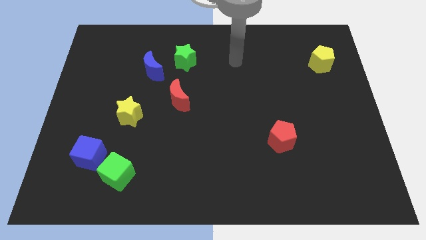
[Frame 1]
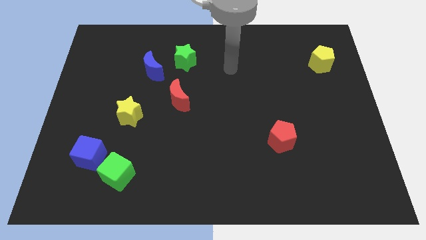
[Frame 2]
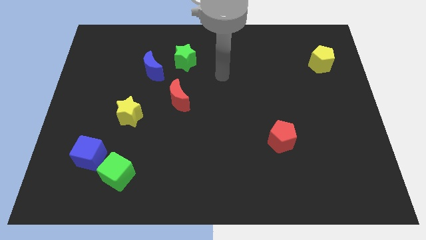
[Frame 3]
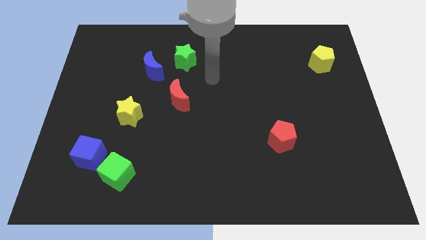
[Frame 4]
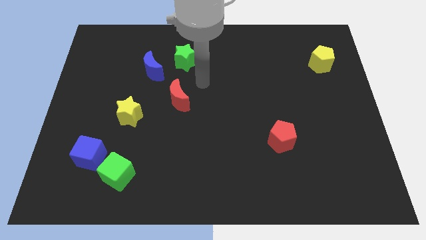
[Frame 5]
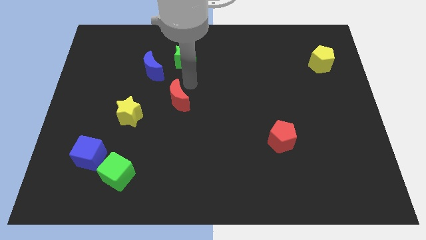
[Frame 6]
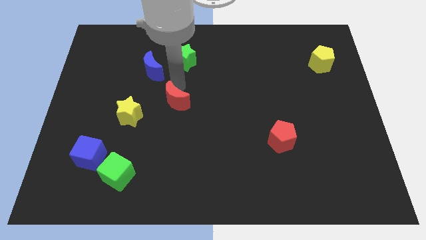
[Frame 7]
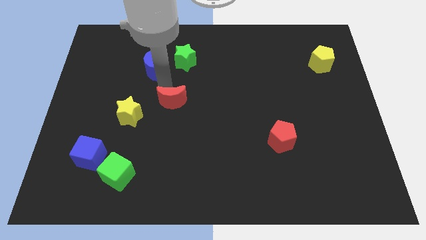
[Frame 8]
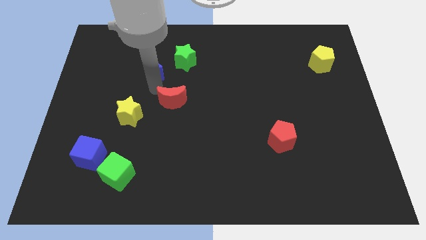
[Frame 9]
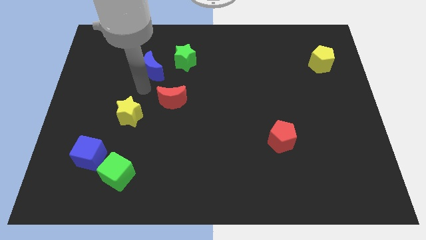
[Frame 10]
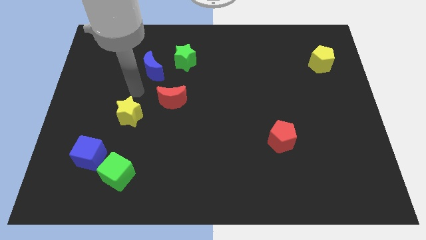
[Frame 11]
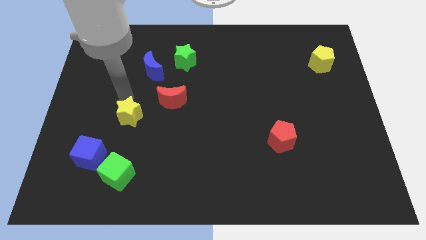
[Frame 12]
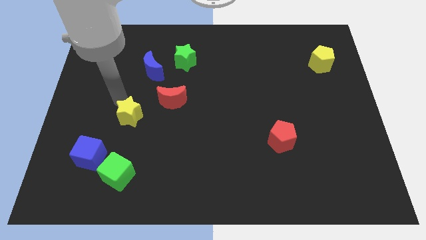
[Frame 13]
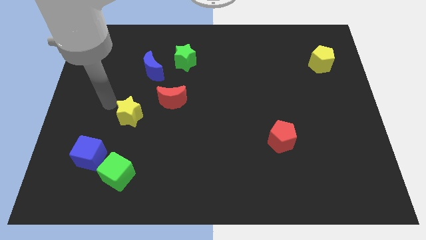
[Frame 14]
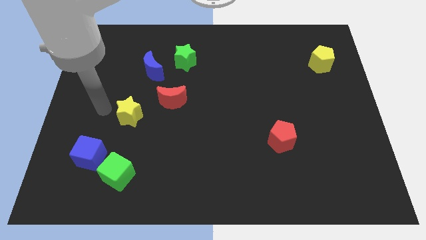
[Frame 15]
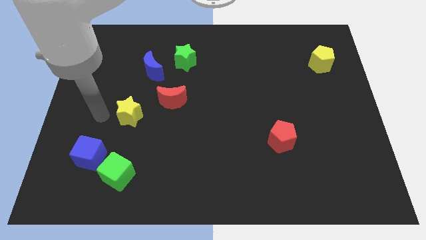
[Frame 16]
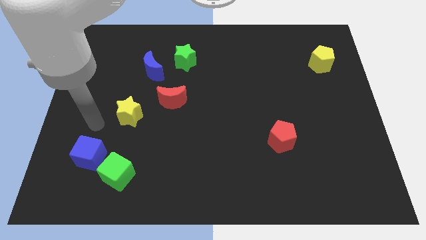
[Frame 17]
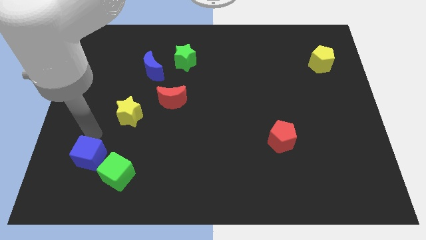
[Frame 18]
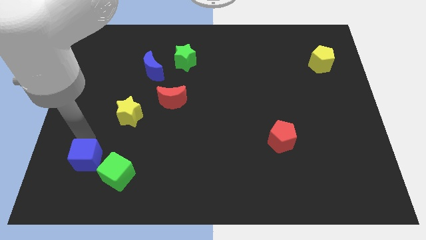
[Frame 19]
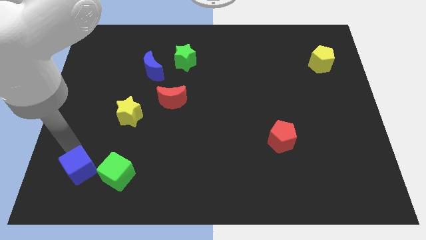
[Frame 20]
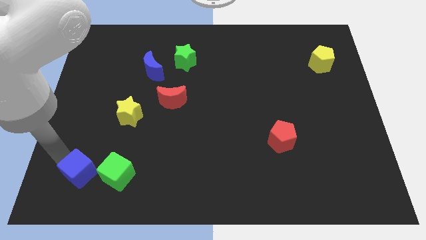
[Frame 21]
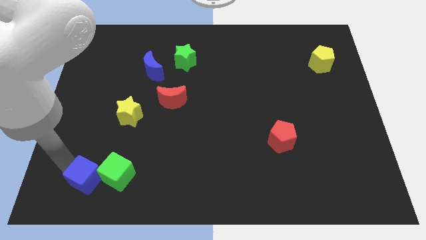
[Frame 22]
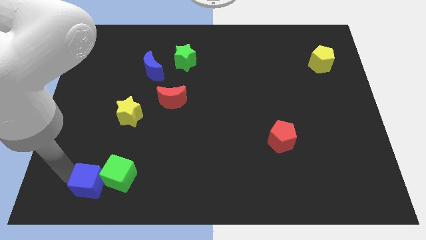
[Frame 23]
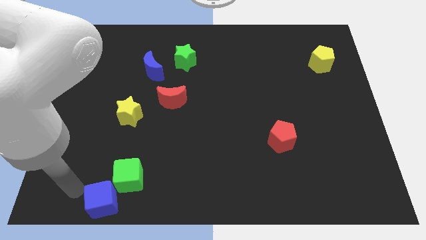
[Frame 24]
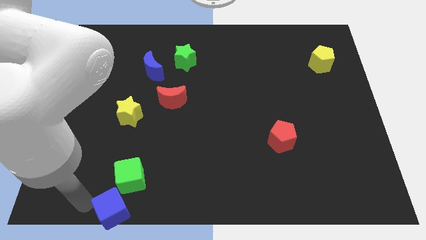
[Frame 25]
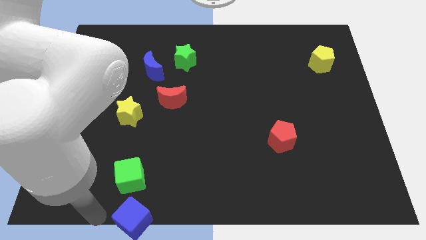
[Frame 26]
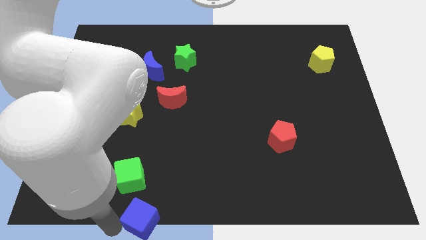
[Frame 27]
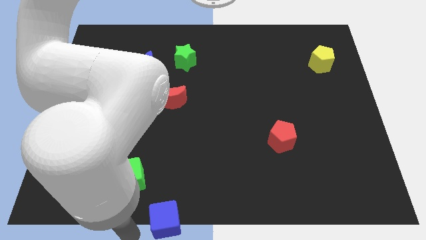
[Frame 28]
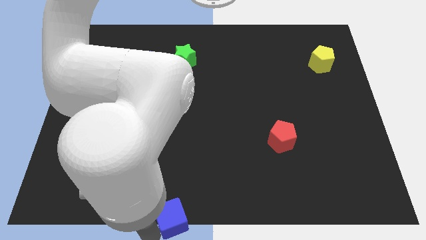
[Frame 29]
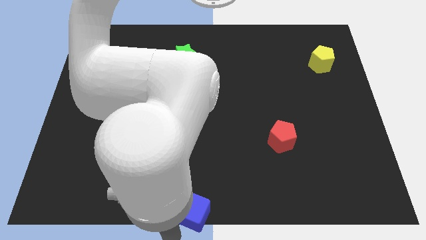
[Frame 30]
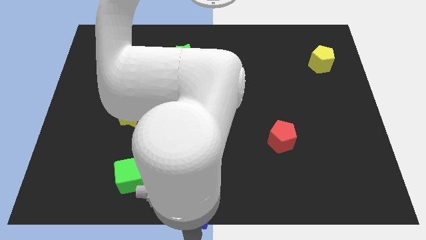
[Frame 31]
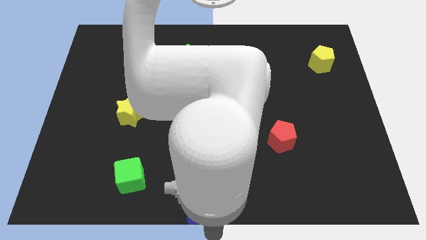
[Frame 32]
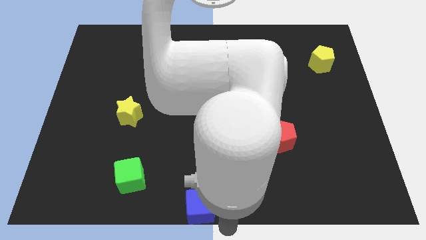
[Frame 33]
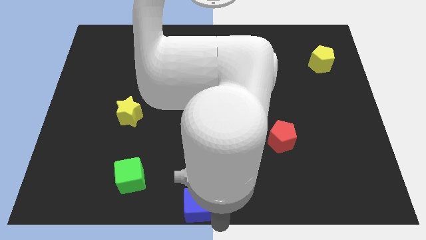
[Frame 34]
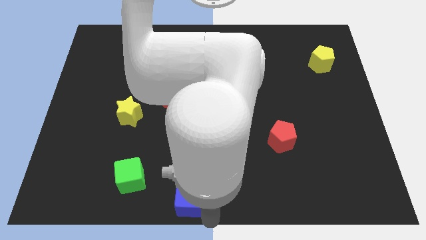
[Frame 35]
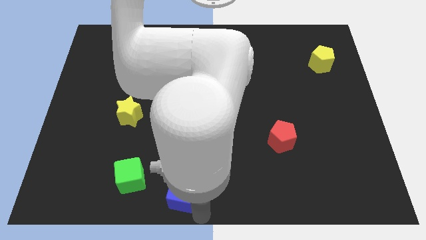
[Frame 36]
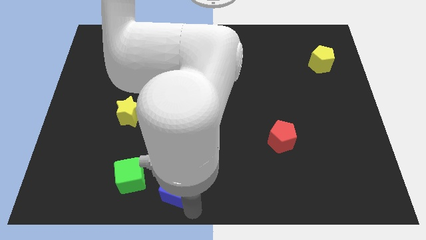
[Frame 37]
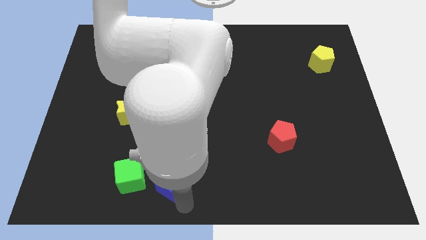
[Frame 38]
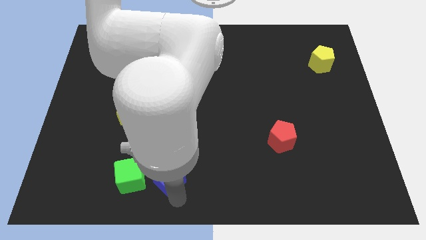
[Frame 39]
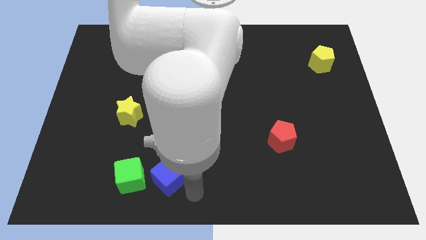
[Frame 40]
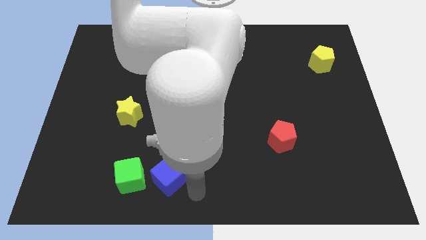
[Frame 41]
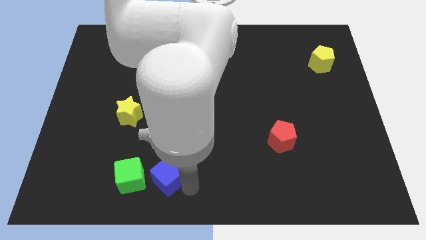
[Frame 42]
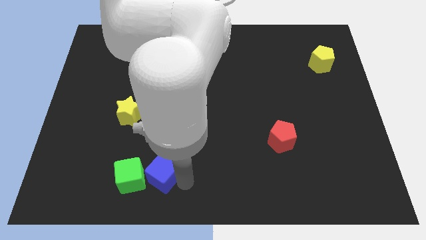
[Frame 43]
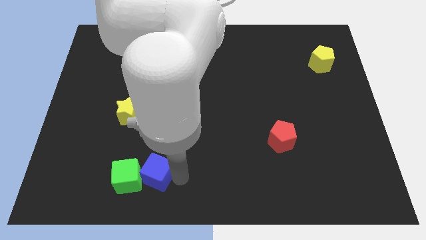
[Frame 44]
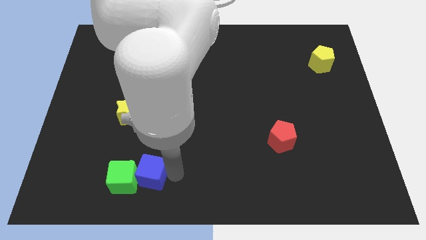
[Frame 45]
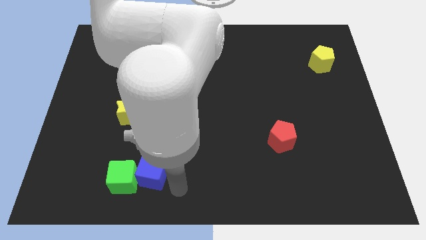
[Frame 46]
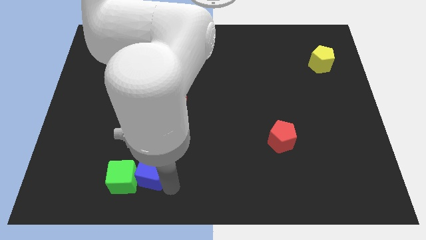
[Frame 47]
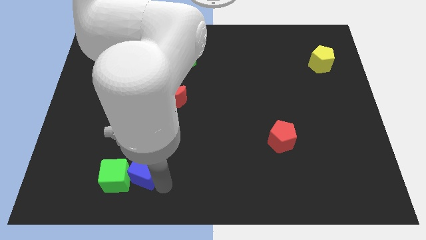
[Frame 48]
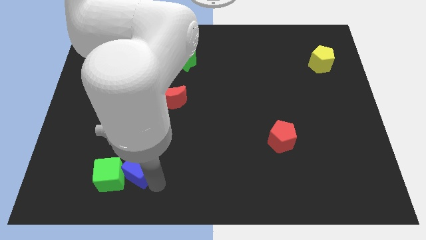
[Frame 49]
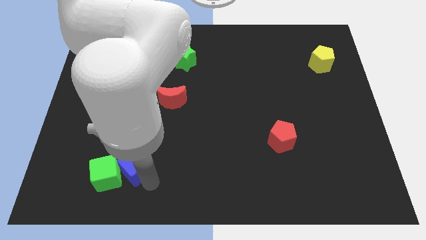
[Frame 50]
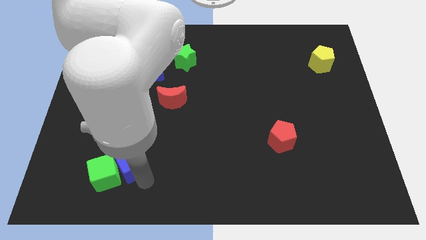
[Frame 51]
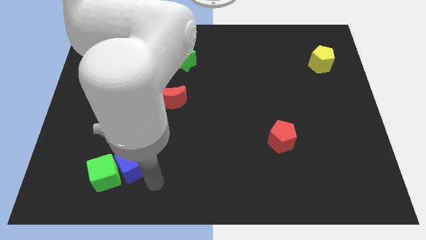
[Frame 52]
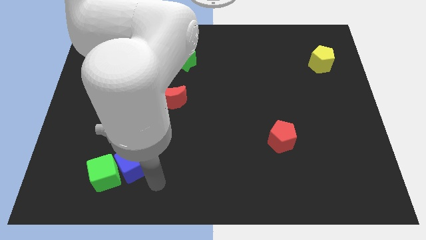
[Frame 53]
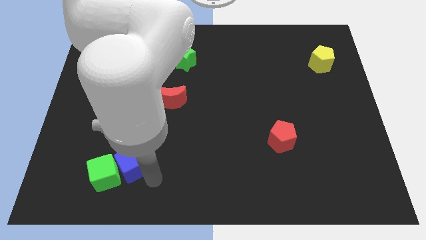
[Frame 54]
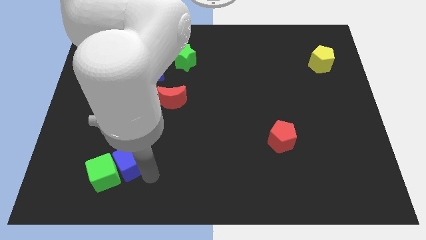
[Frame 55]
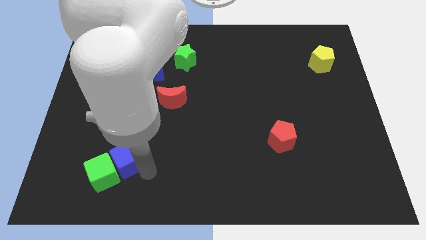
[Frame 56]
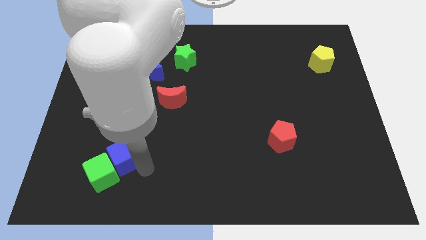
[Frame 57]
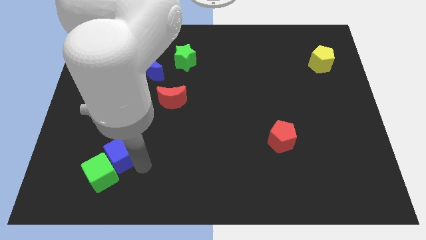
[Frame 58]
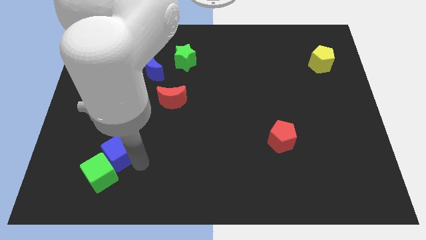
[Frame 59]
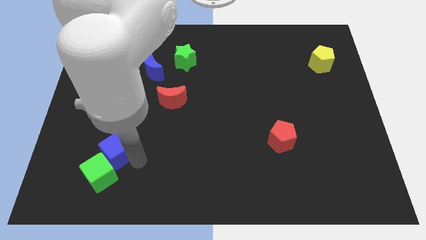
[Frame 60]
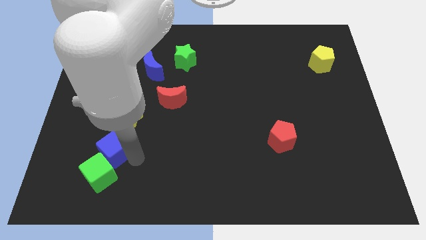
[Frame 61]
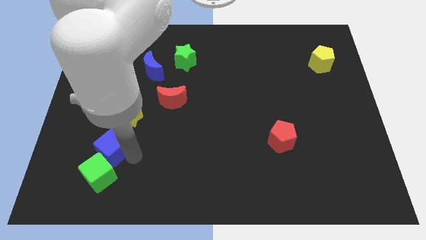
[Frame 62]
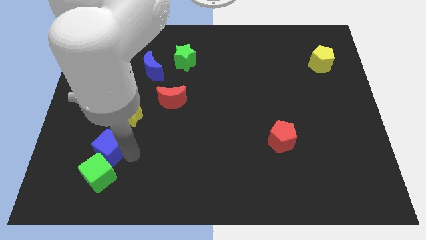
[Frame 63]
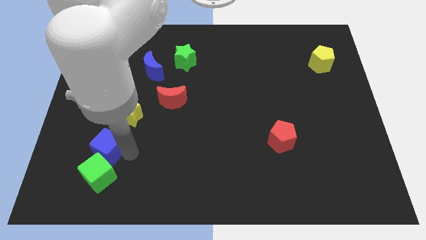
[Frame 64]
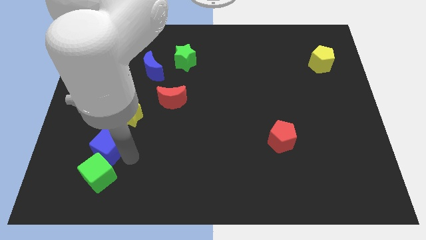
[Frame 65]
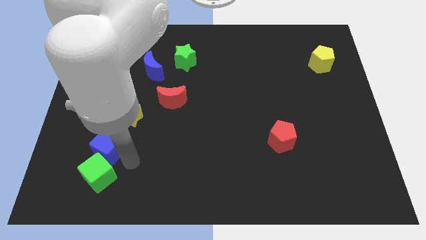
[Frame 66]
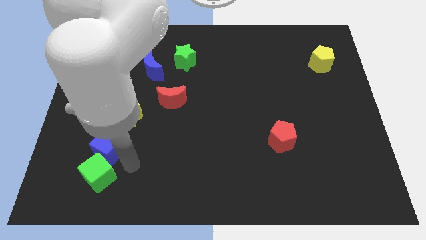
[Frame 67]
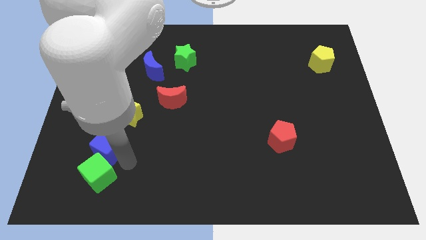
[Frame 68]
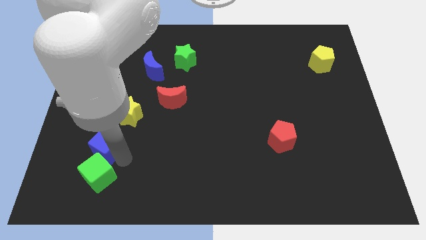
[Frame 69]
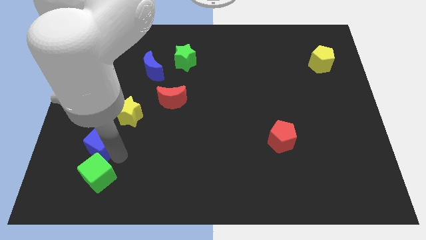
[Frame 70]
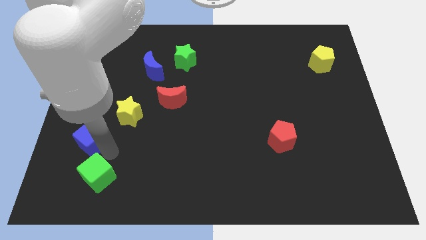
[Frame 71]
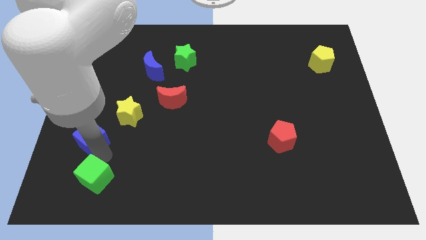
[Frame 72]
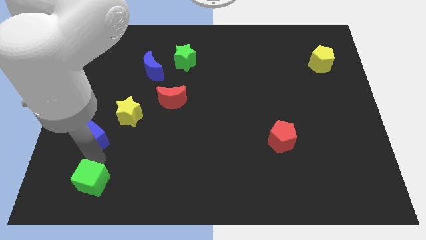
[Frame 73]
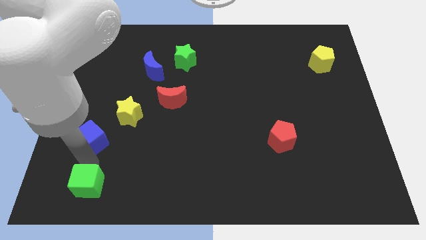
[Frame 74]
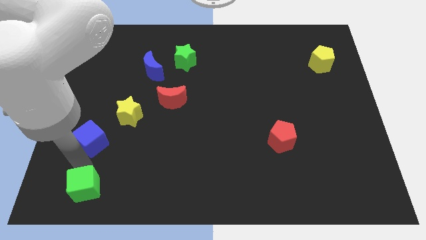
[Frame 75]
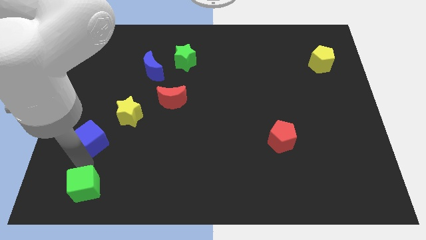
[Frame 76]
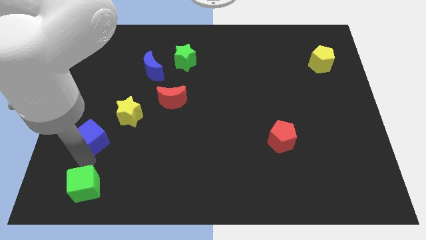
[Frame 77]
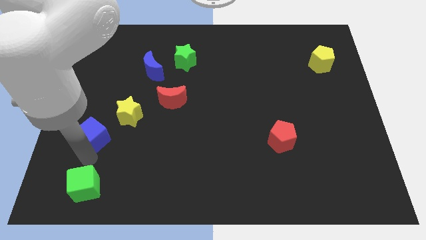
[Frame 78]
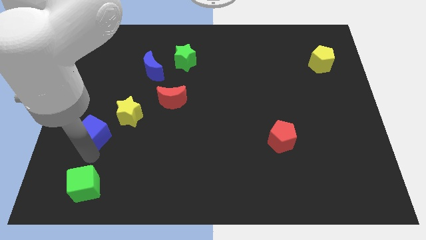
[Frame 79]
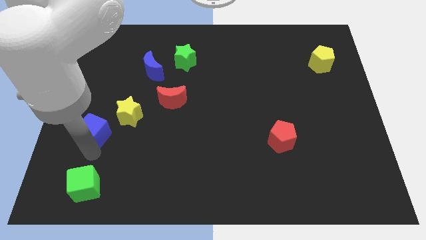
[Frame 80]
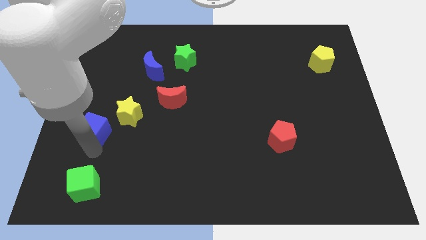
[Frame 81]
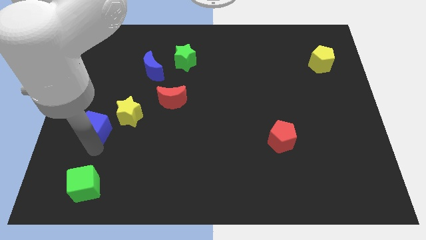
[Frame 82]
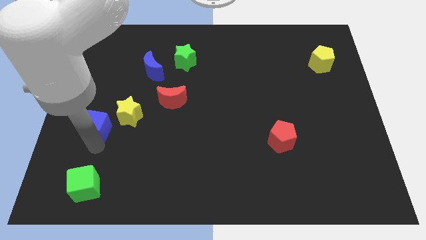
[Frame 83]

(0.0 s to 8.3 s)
slightly push the blue cube upwards

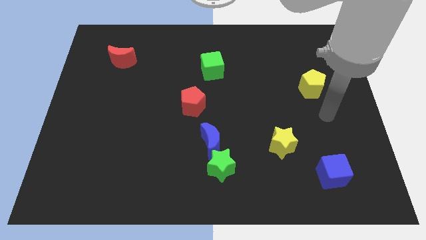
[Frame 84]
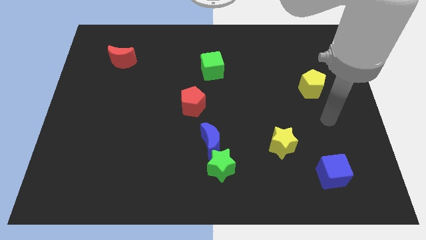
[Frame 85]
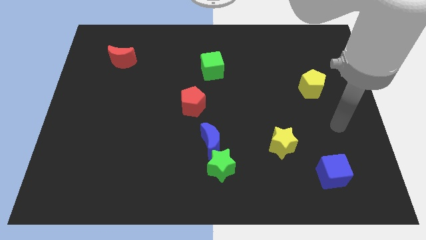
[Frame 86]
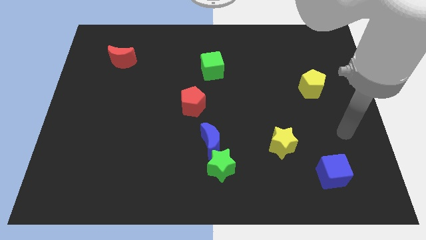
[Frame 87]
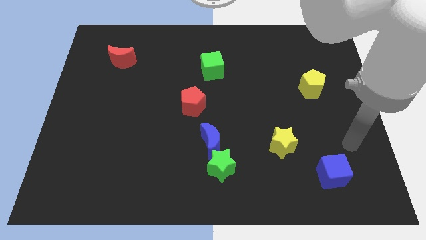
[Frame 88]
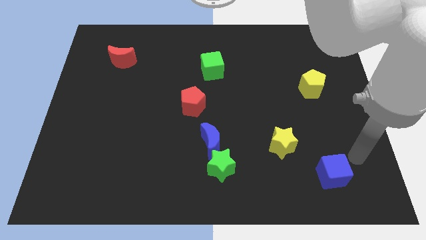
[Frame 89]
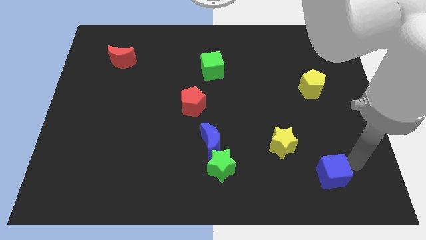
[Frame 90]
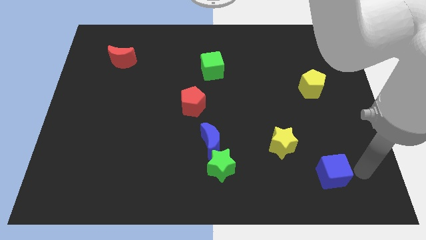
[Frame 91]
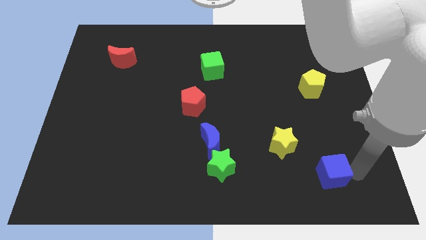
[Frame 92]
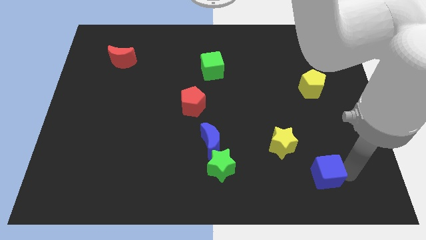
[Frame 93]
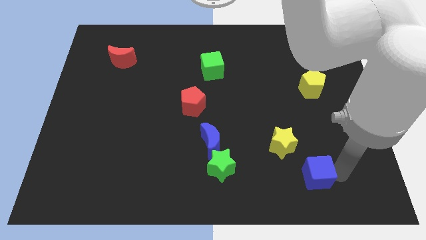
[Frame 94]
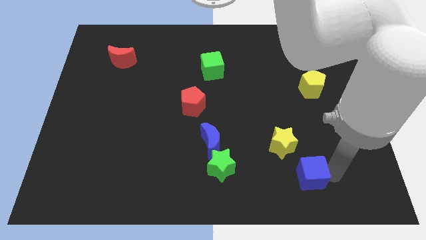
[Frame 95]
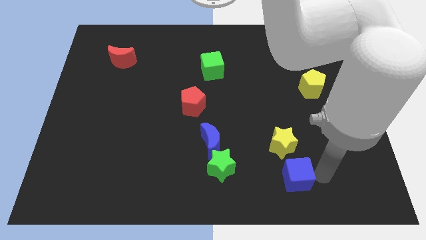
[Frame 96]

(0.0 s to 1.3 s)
slightly move the blue cube left
